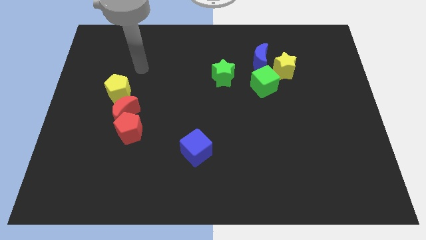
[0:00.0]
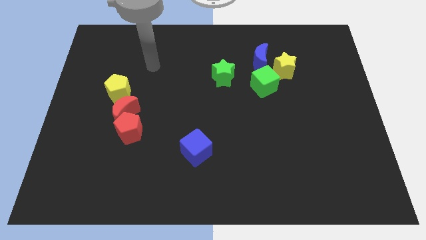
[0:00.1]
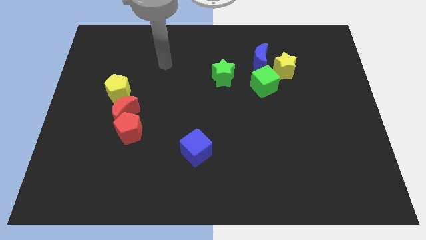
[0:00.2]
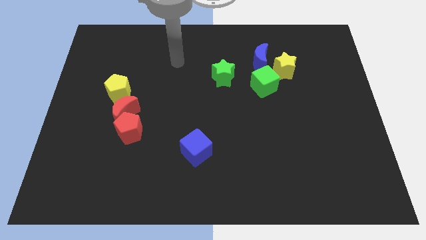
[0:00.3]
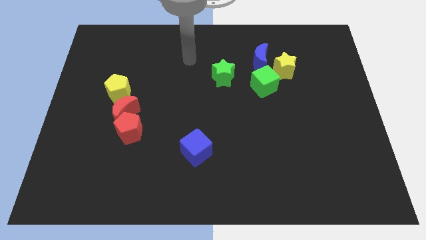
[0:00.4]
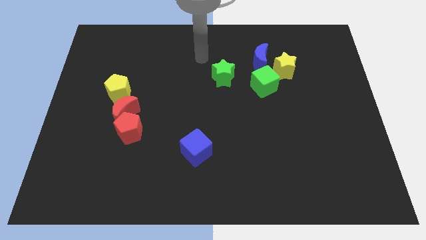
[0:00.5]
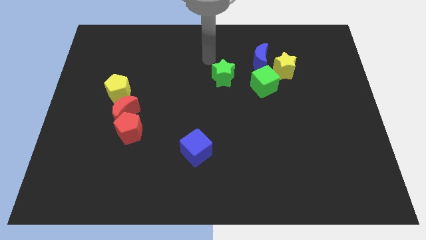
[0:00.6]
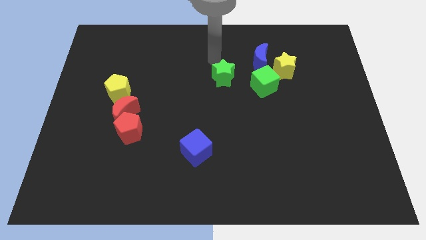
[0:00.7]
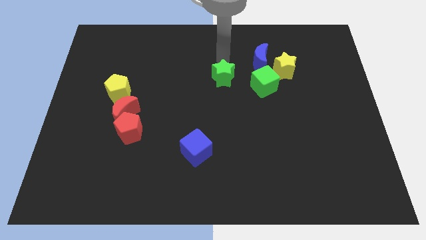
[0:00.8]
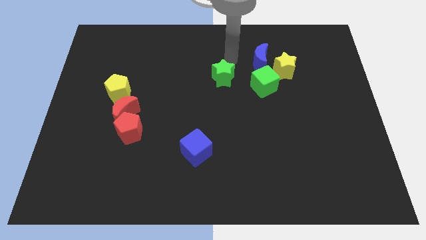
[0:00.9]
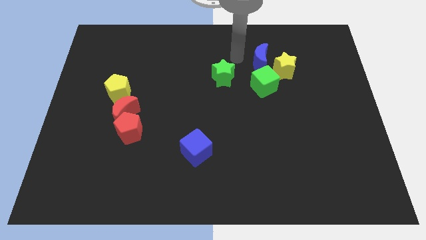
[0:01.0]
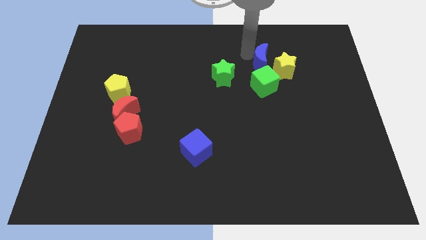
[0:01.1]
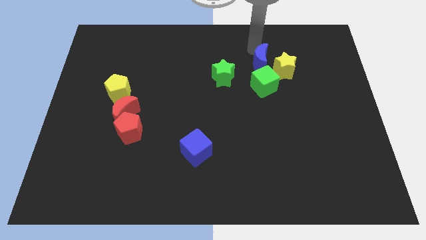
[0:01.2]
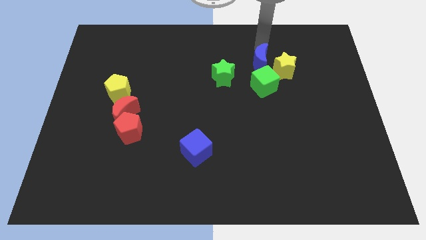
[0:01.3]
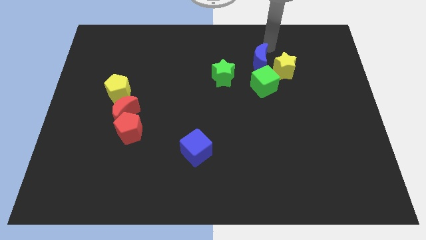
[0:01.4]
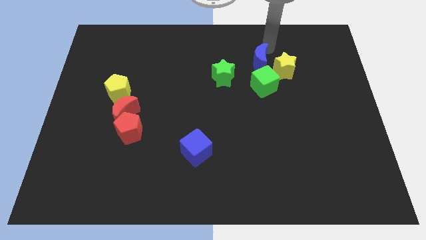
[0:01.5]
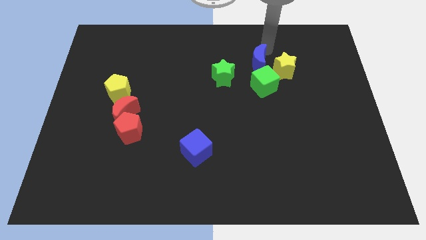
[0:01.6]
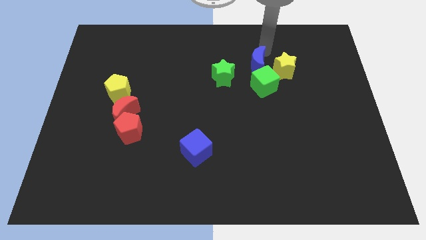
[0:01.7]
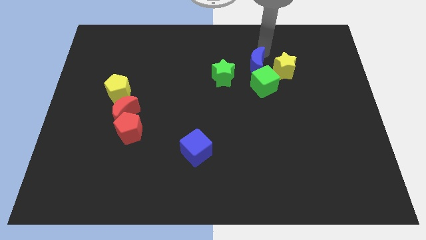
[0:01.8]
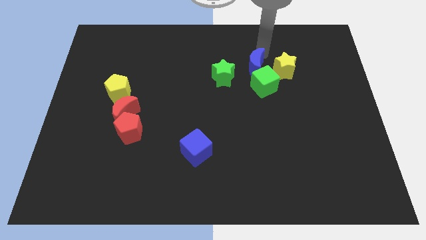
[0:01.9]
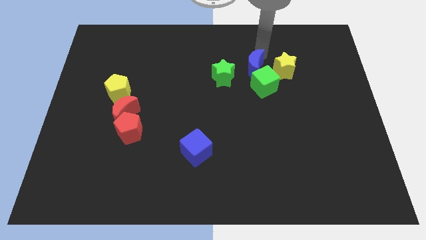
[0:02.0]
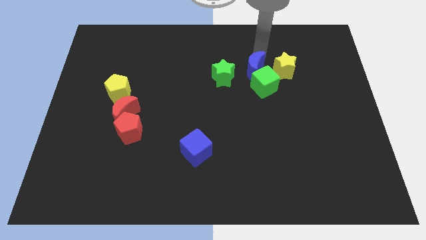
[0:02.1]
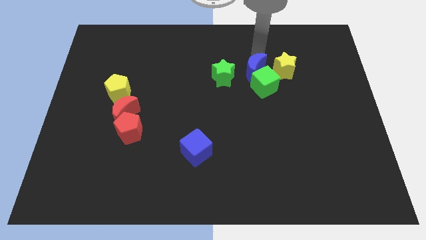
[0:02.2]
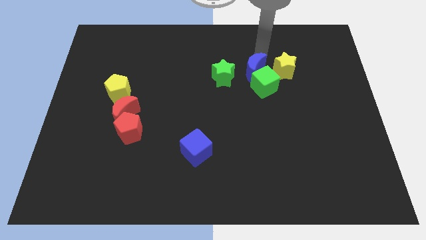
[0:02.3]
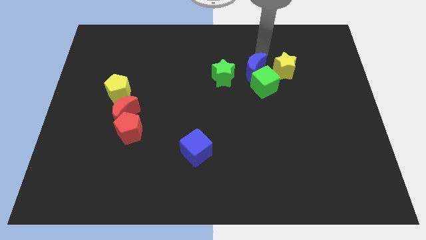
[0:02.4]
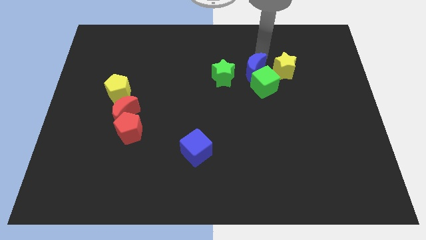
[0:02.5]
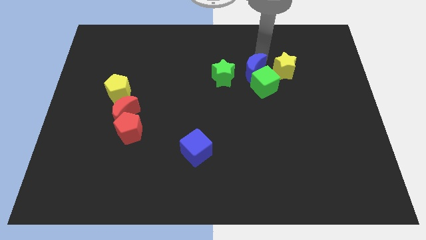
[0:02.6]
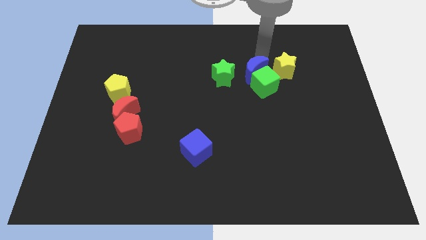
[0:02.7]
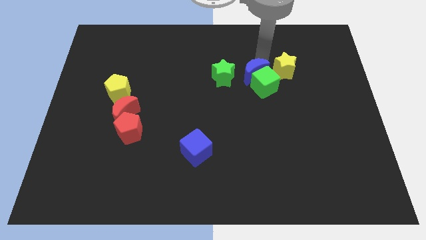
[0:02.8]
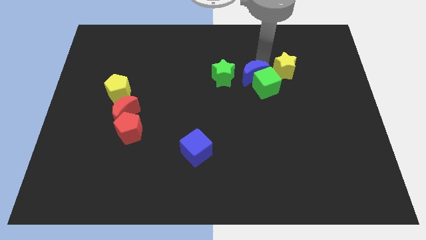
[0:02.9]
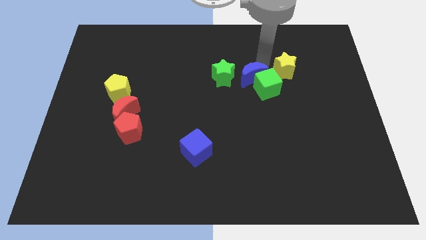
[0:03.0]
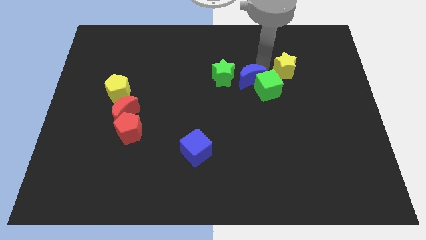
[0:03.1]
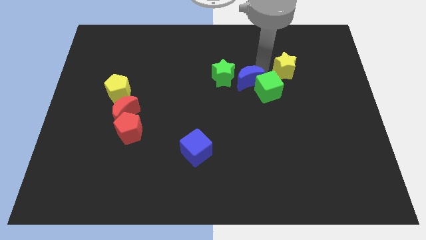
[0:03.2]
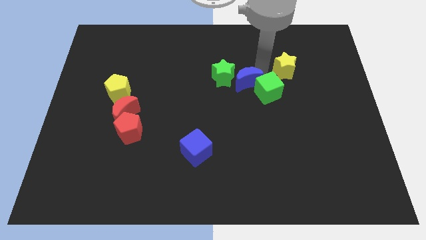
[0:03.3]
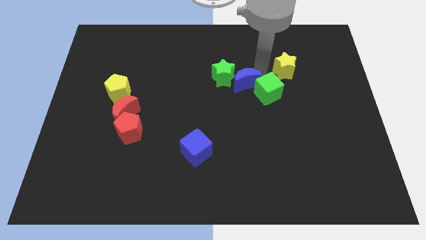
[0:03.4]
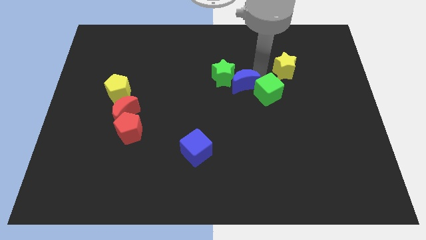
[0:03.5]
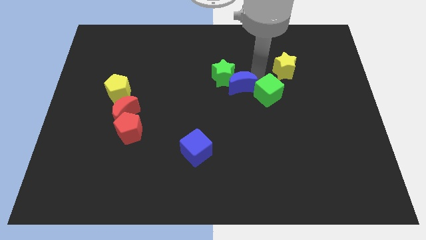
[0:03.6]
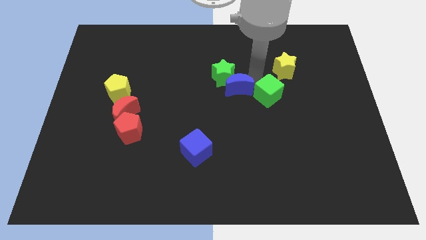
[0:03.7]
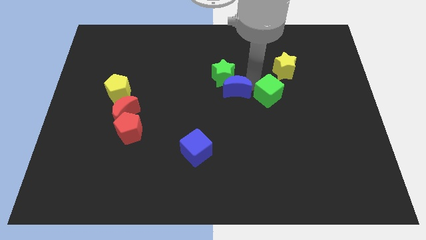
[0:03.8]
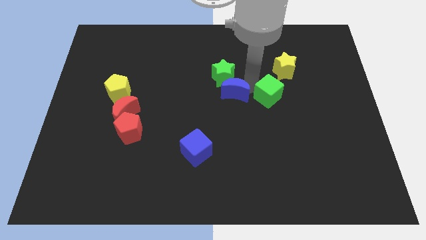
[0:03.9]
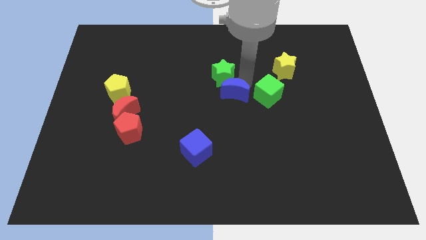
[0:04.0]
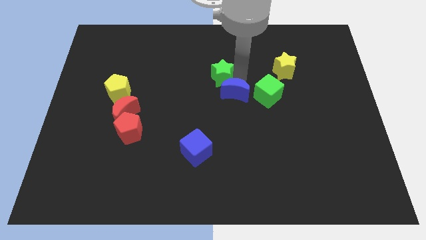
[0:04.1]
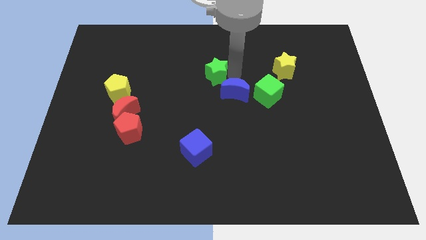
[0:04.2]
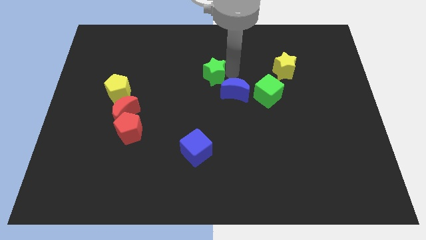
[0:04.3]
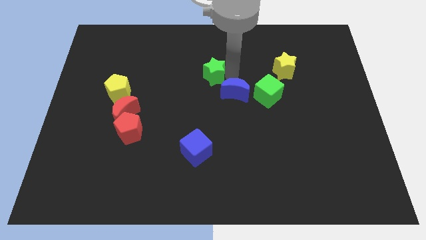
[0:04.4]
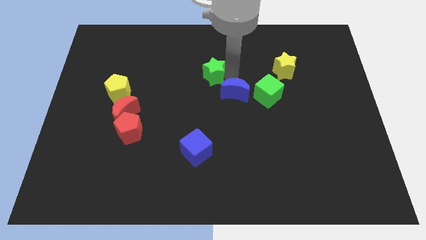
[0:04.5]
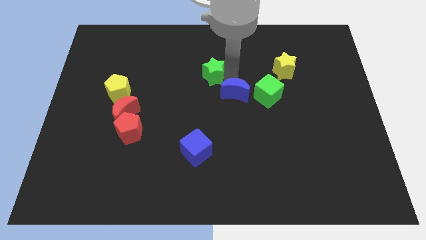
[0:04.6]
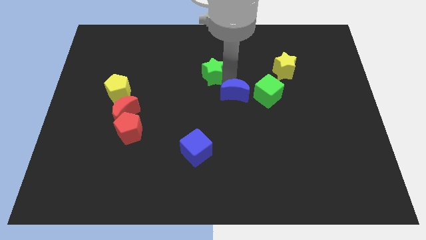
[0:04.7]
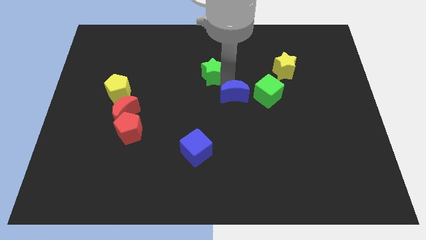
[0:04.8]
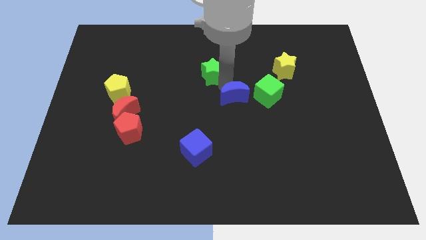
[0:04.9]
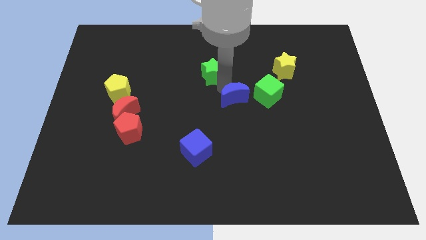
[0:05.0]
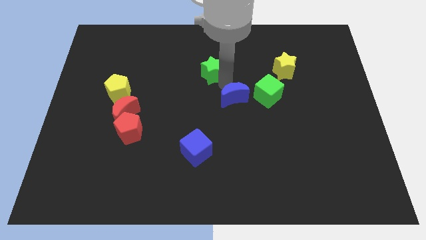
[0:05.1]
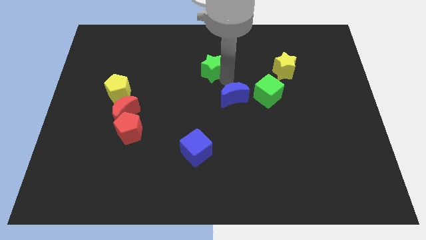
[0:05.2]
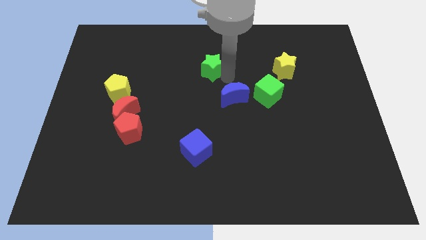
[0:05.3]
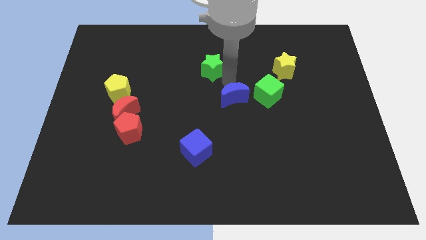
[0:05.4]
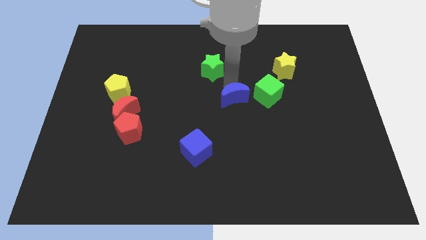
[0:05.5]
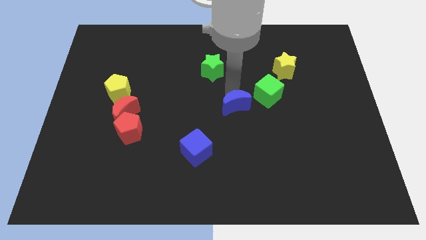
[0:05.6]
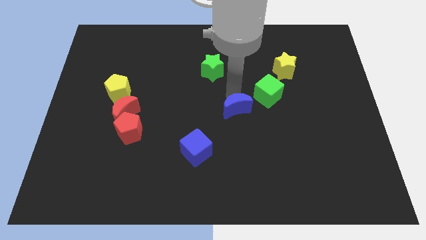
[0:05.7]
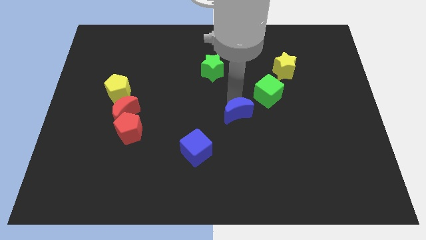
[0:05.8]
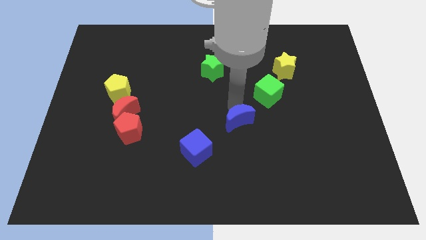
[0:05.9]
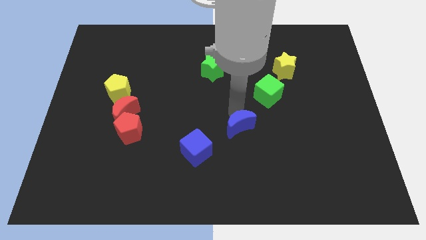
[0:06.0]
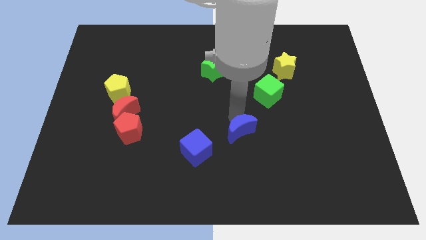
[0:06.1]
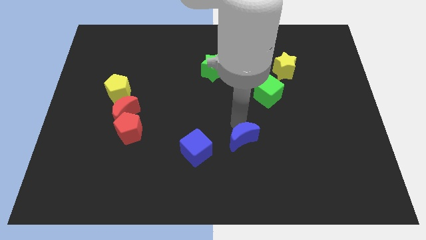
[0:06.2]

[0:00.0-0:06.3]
move the blue moon right of the blue cube
